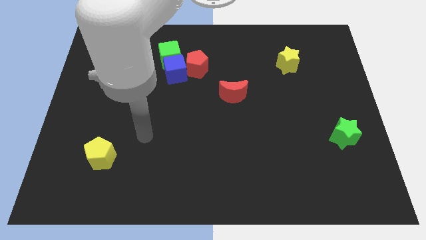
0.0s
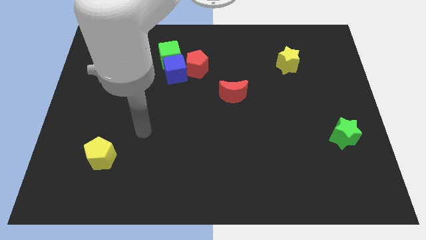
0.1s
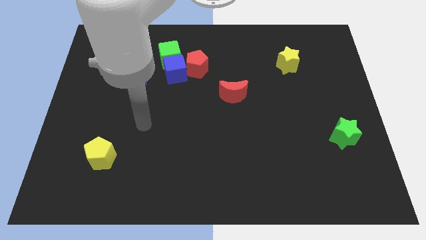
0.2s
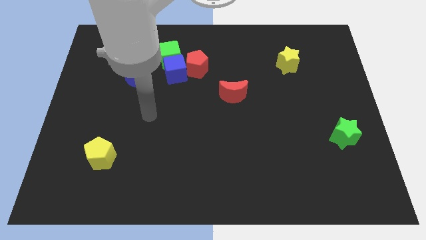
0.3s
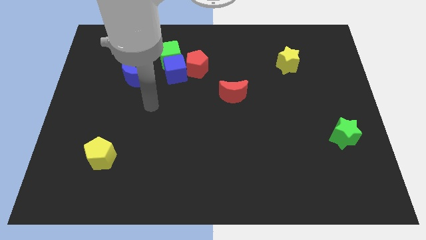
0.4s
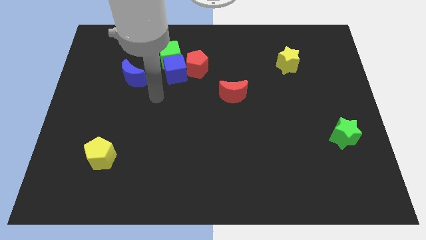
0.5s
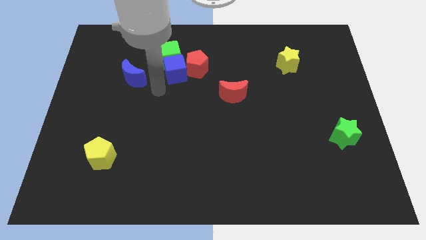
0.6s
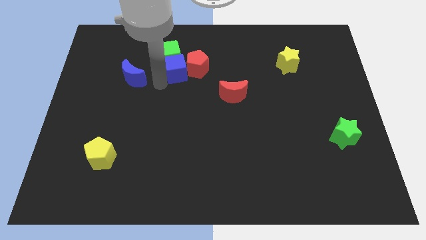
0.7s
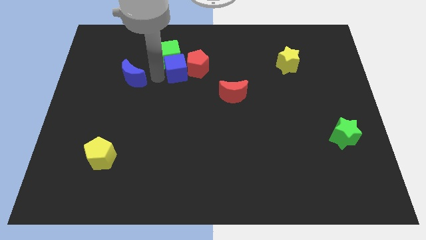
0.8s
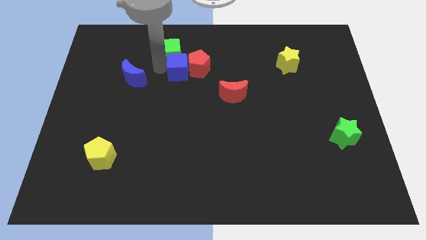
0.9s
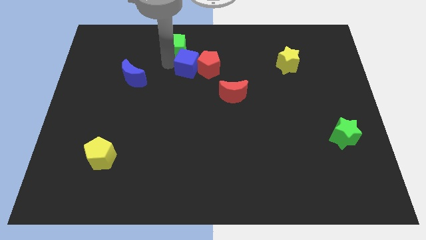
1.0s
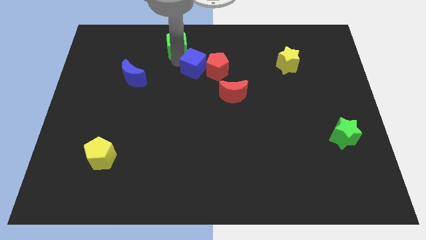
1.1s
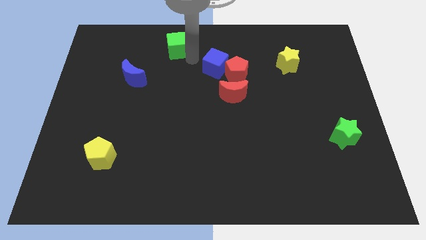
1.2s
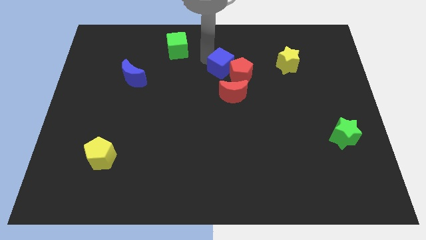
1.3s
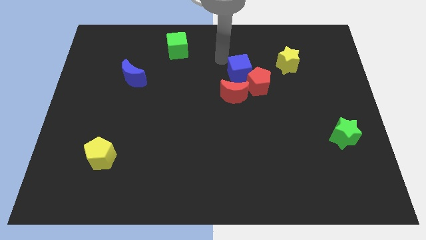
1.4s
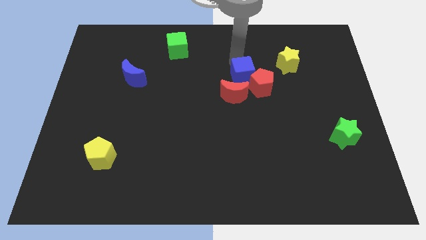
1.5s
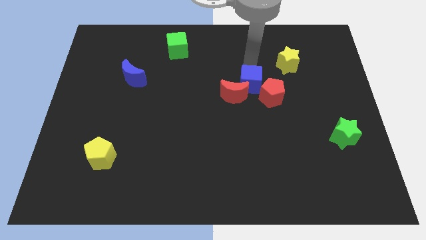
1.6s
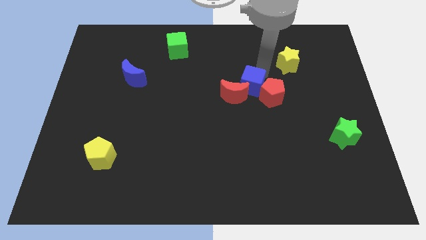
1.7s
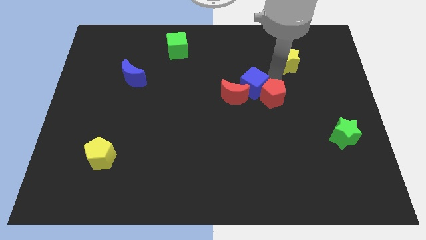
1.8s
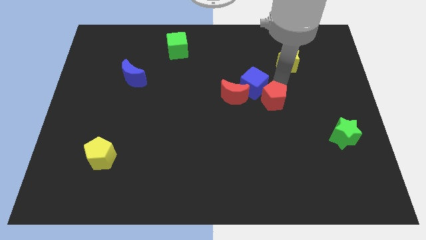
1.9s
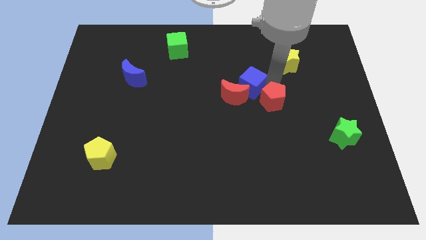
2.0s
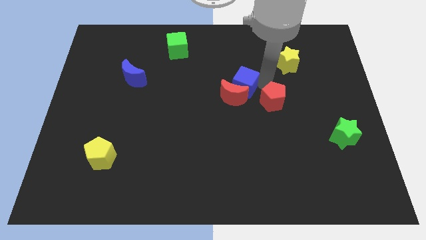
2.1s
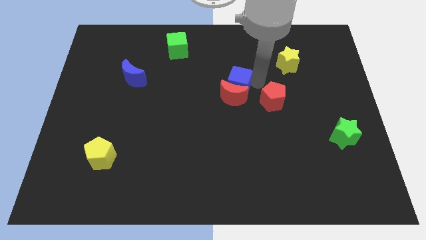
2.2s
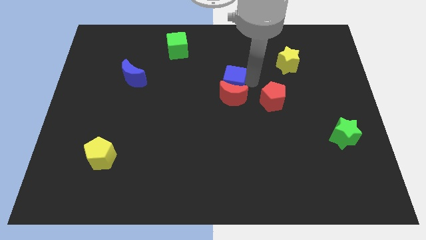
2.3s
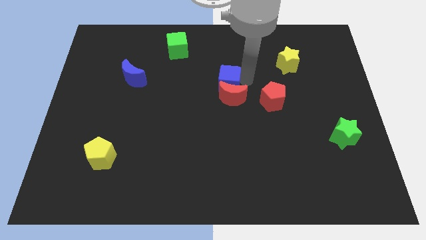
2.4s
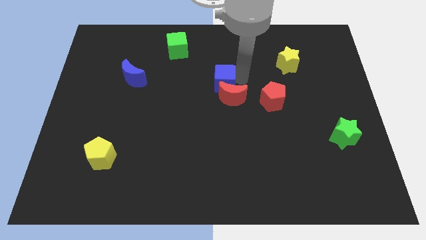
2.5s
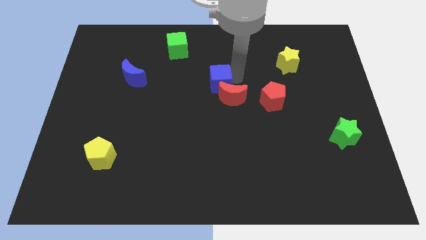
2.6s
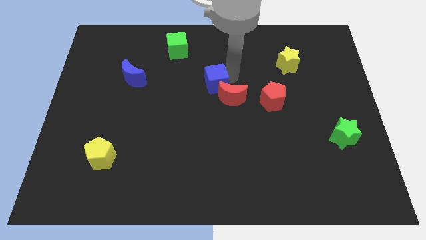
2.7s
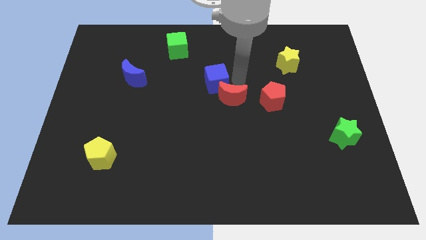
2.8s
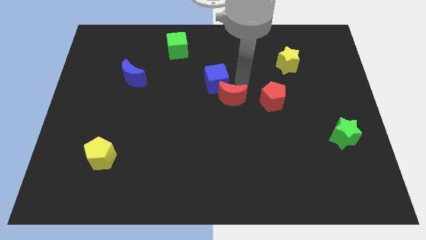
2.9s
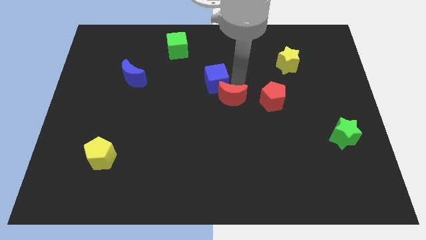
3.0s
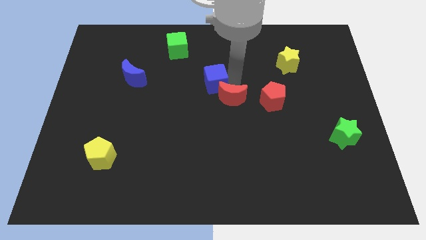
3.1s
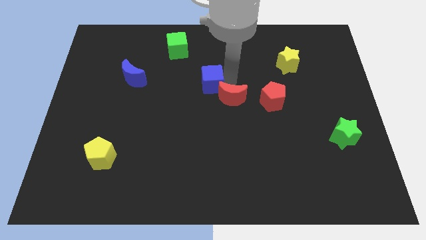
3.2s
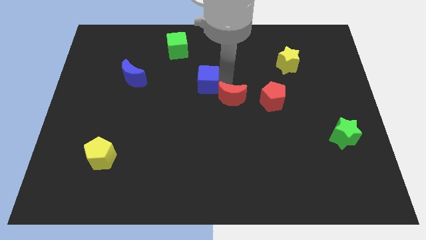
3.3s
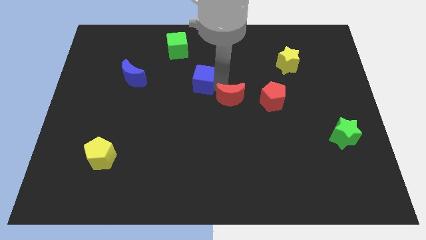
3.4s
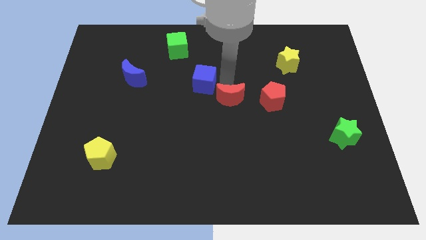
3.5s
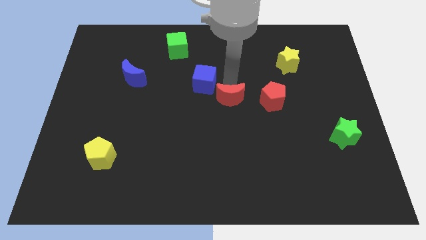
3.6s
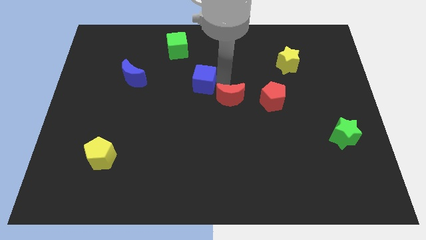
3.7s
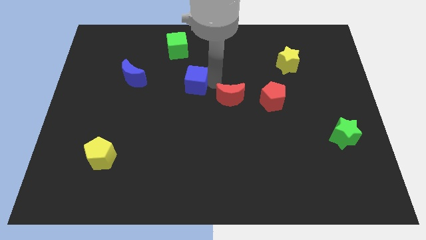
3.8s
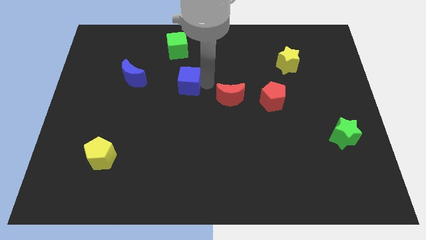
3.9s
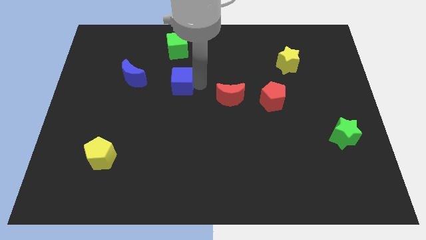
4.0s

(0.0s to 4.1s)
separate the blue cube from the green cube and red pentagon

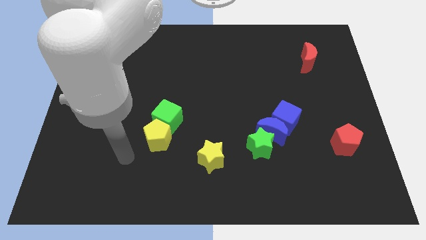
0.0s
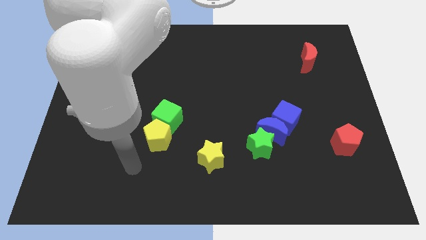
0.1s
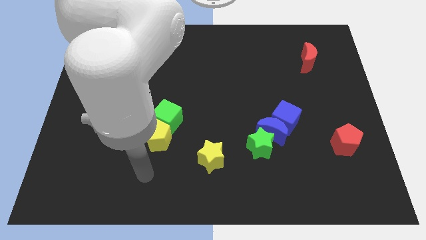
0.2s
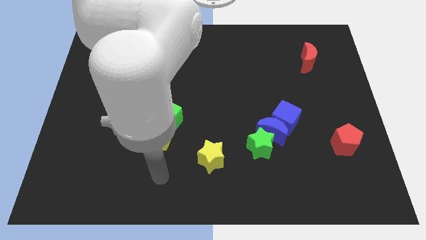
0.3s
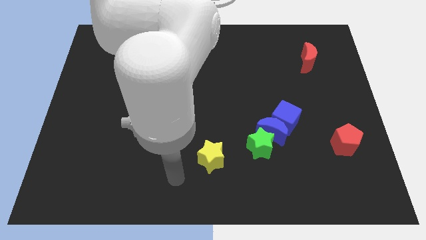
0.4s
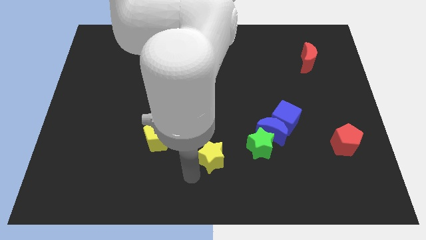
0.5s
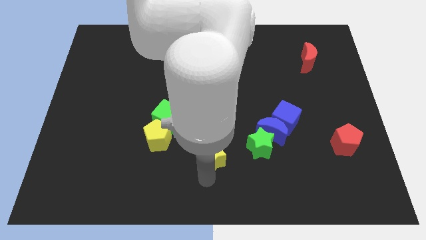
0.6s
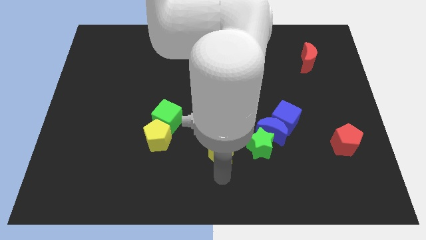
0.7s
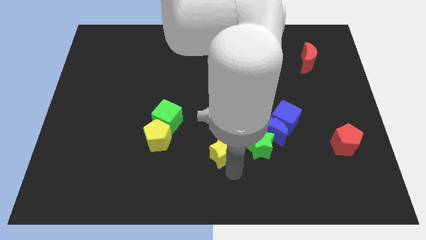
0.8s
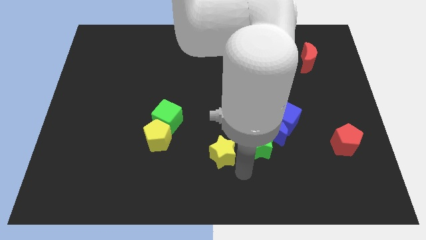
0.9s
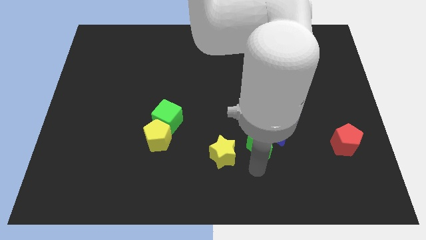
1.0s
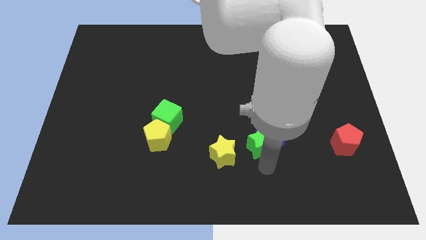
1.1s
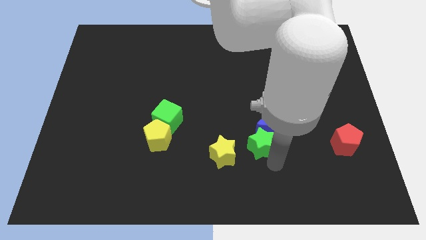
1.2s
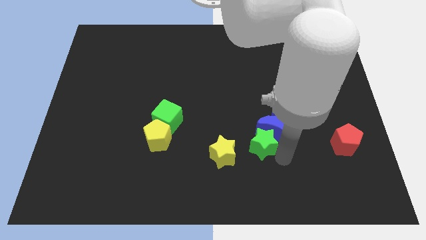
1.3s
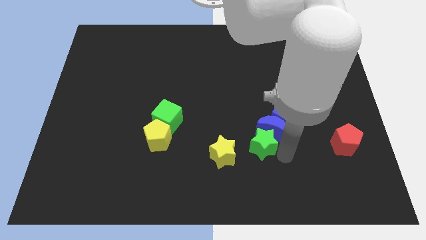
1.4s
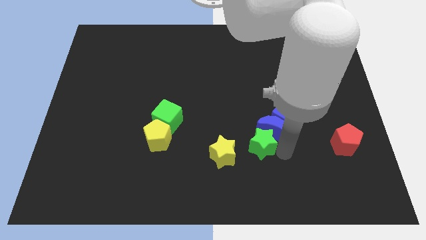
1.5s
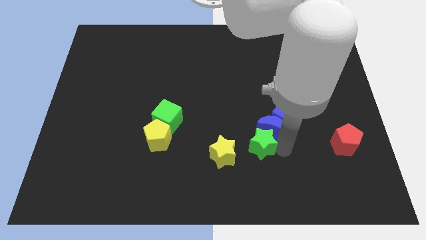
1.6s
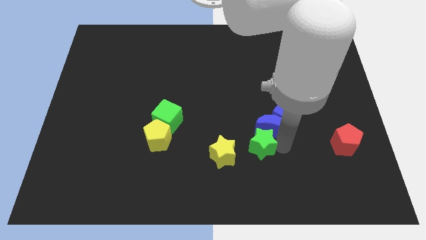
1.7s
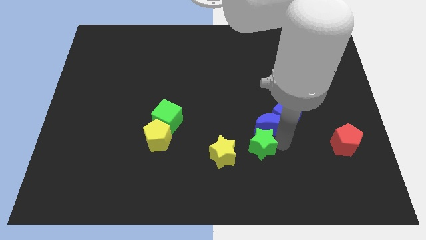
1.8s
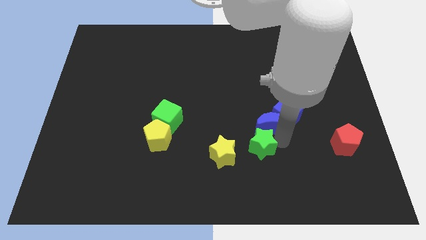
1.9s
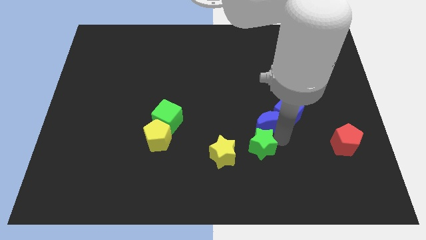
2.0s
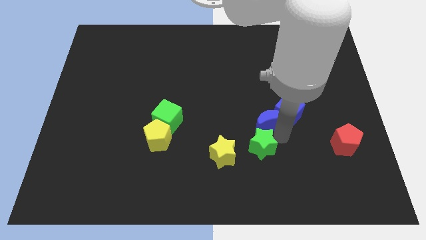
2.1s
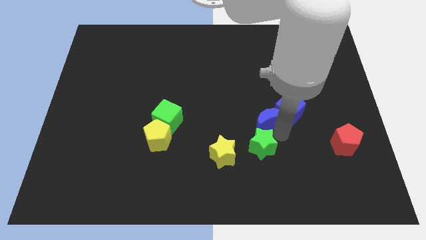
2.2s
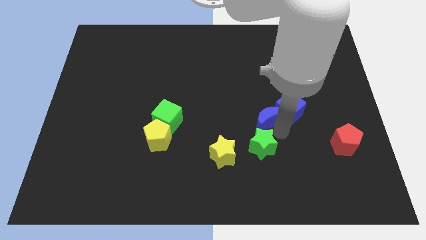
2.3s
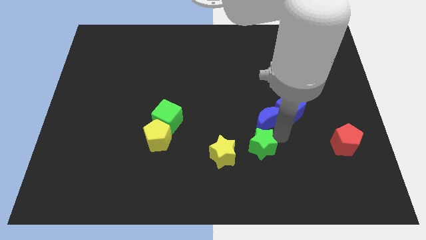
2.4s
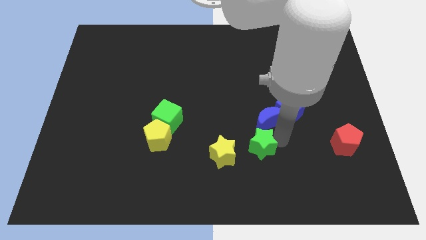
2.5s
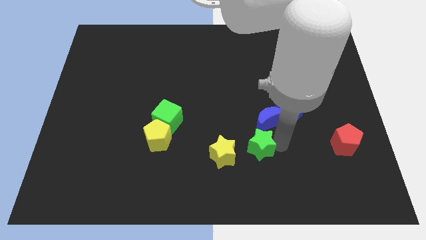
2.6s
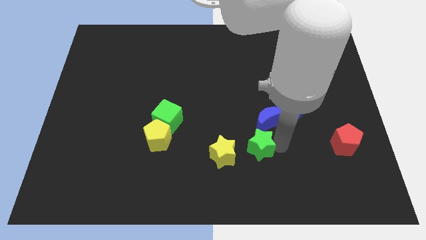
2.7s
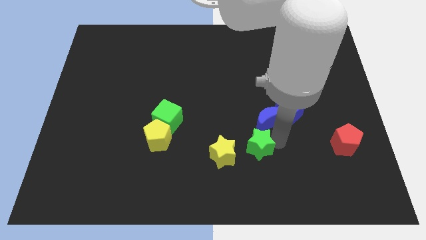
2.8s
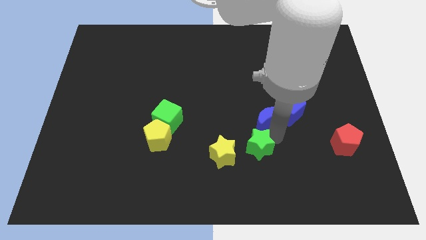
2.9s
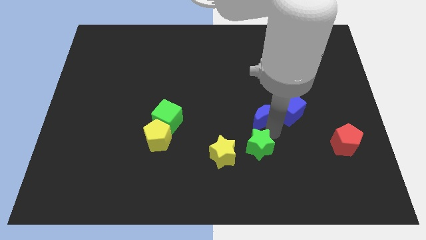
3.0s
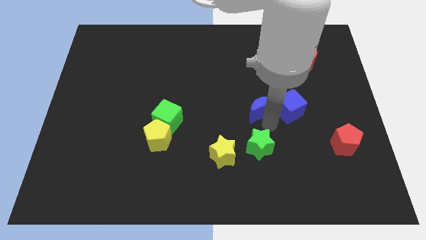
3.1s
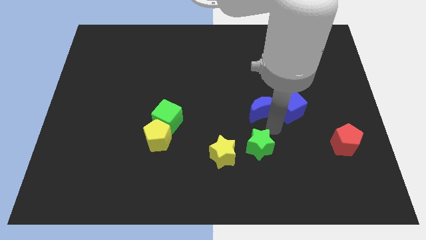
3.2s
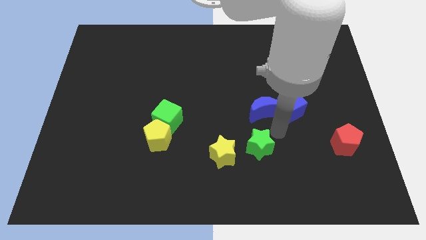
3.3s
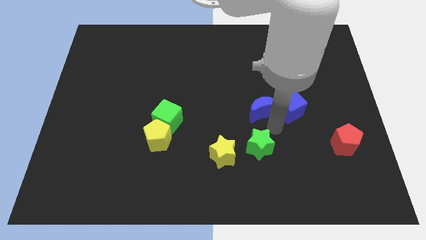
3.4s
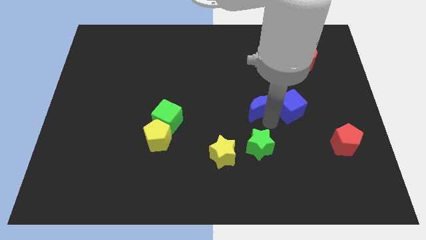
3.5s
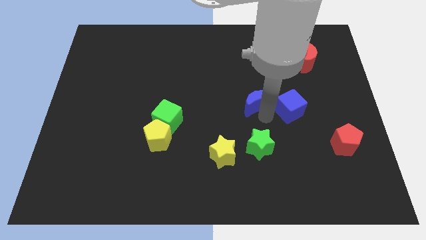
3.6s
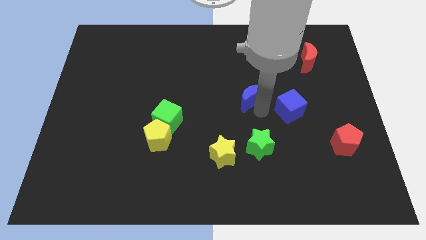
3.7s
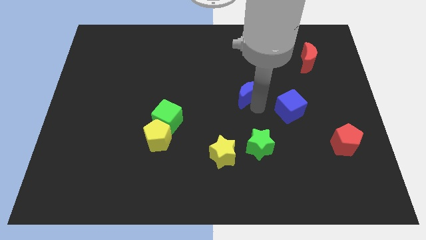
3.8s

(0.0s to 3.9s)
pull the blue moon apart from the blue cube and green star

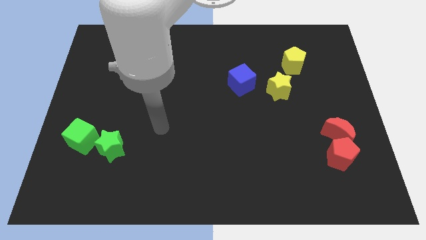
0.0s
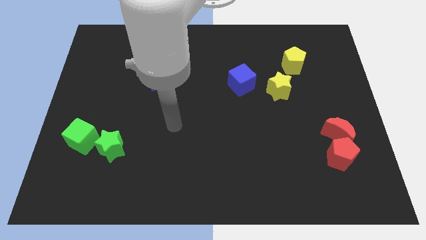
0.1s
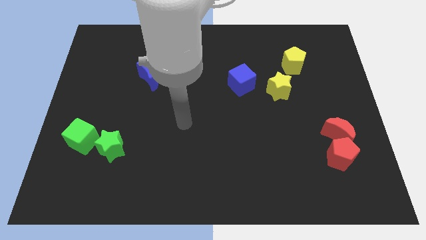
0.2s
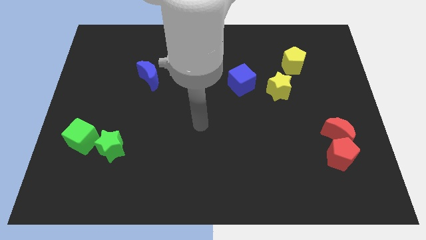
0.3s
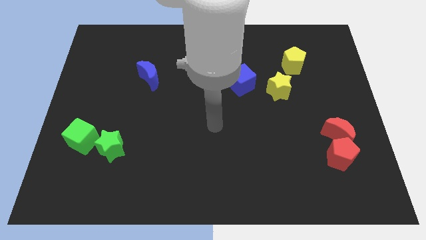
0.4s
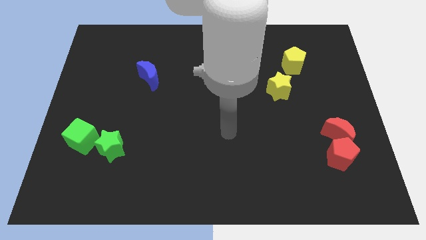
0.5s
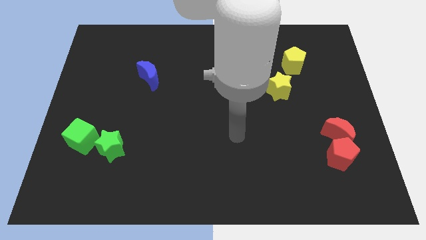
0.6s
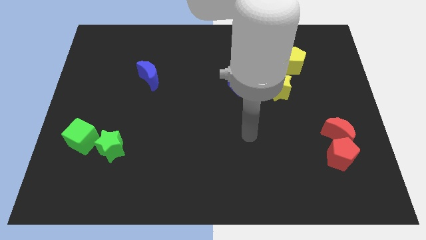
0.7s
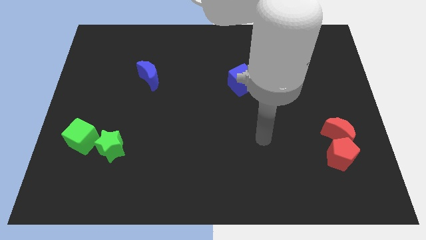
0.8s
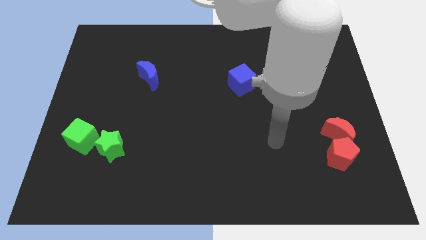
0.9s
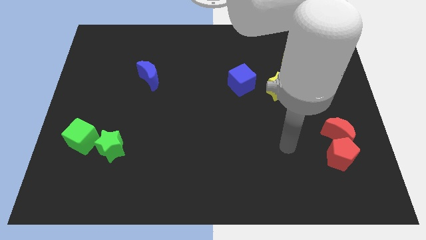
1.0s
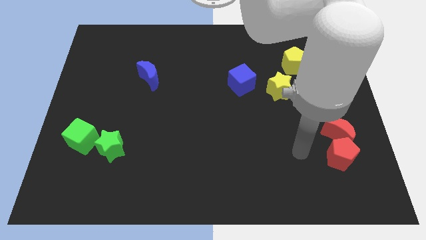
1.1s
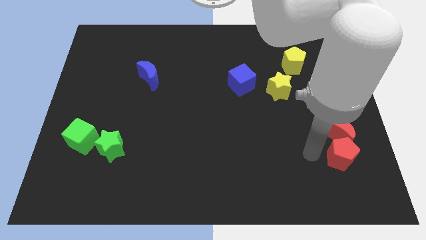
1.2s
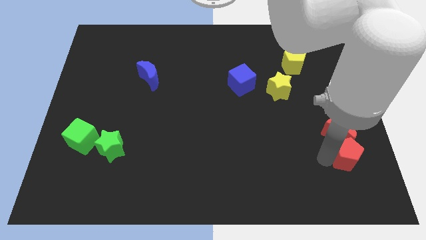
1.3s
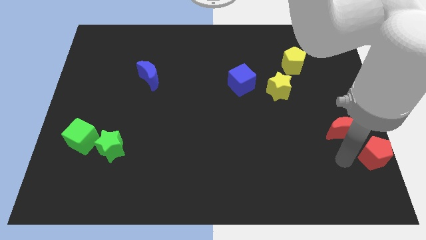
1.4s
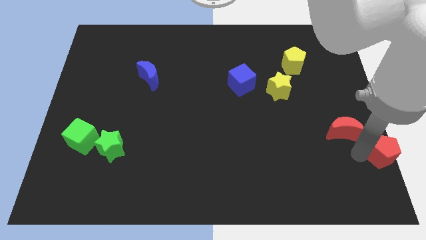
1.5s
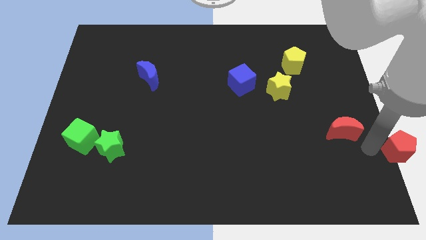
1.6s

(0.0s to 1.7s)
pull the red moon apart from the red pentagon
